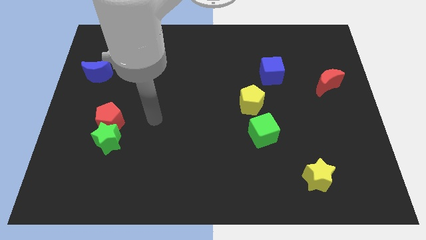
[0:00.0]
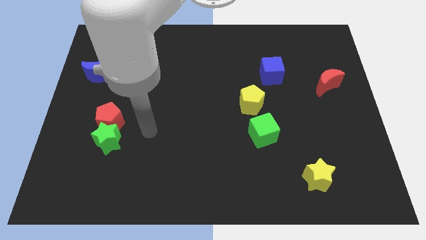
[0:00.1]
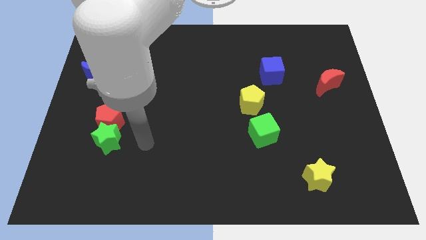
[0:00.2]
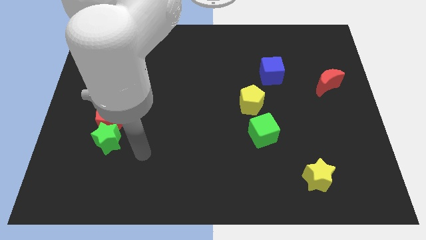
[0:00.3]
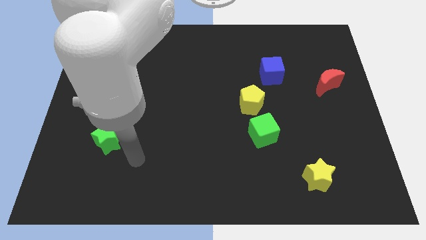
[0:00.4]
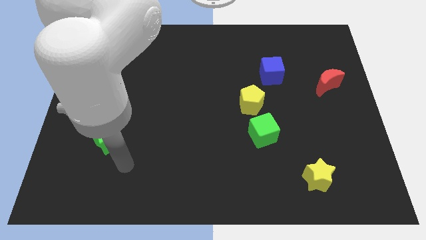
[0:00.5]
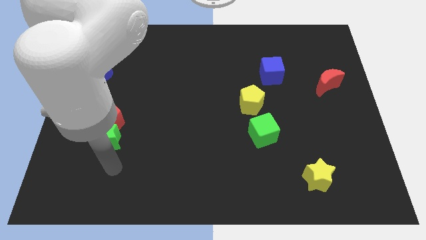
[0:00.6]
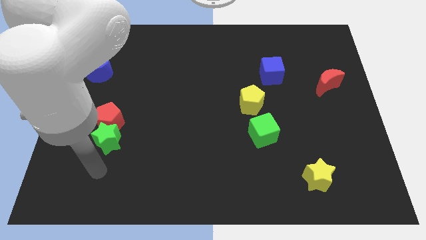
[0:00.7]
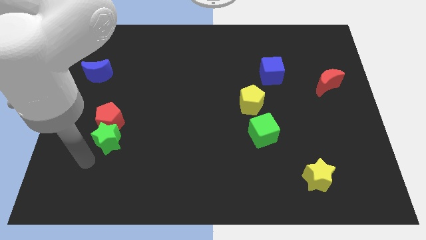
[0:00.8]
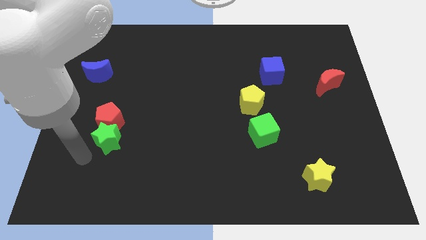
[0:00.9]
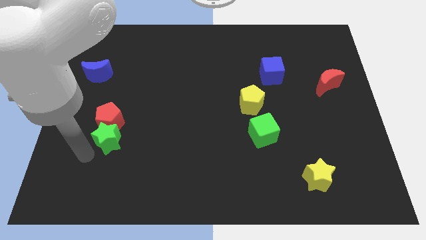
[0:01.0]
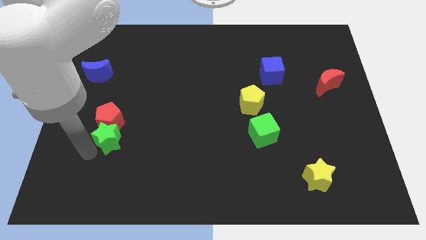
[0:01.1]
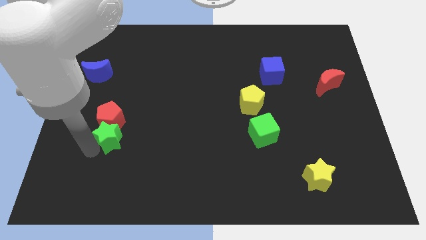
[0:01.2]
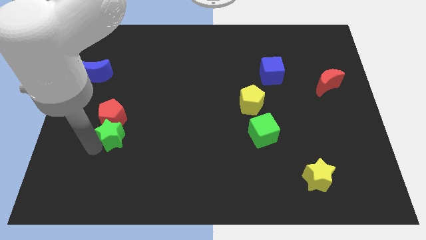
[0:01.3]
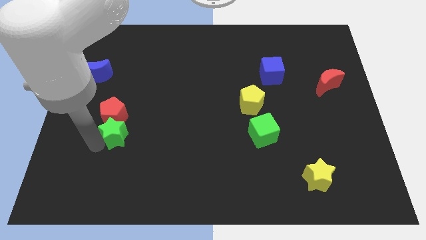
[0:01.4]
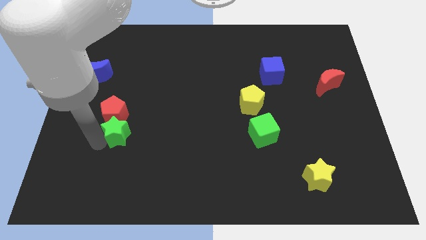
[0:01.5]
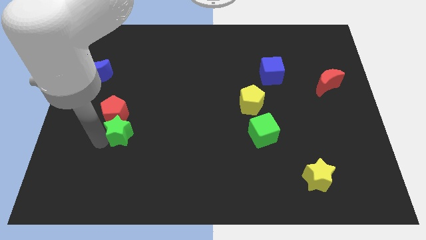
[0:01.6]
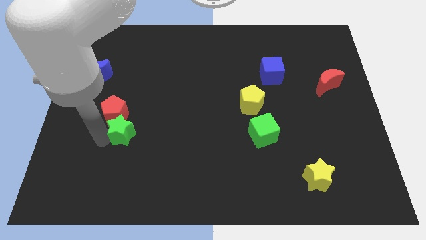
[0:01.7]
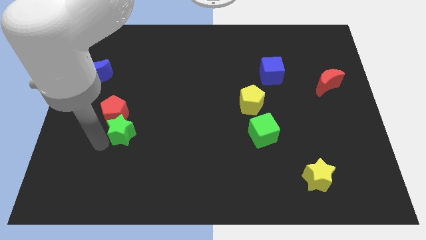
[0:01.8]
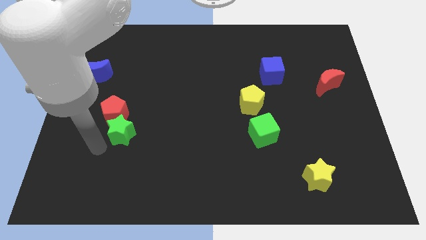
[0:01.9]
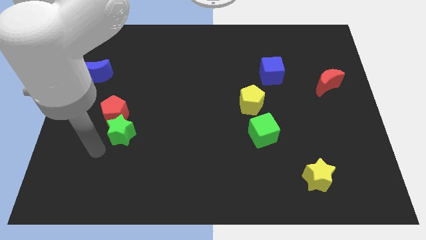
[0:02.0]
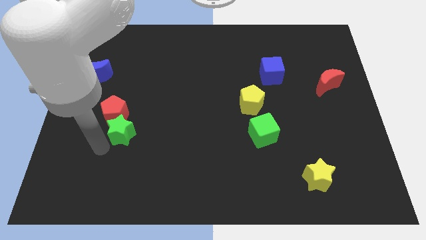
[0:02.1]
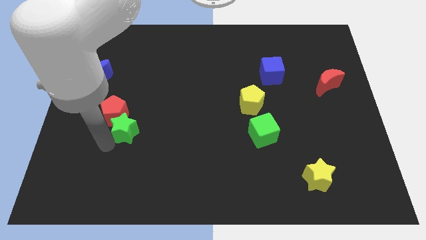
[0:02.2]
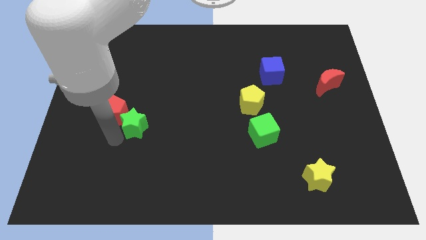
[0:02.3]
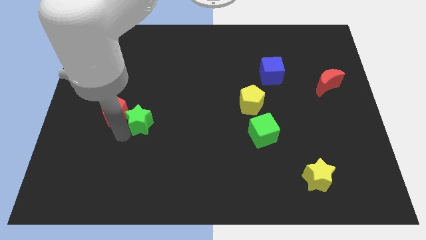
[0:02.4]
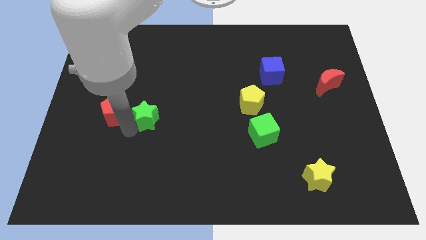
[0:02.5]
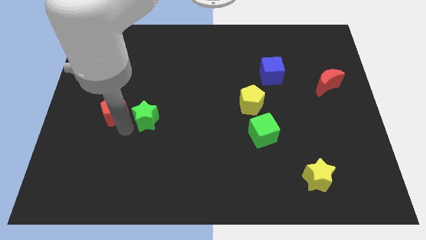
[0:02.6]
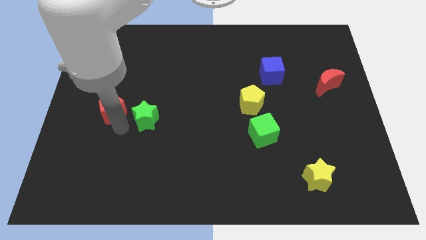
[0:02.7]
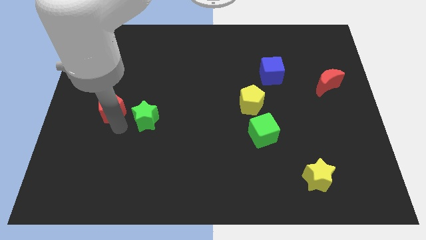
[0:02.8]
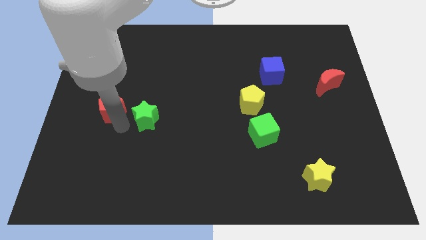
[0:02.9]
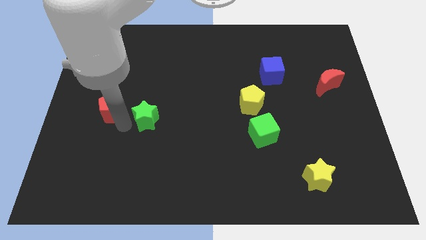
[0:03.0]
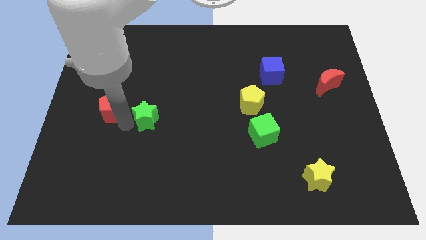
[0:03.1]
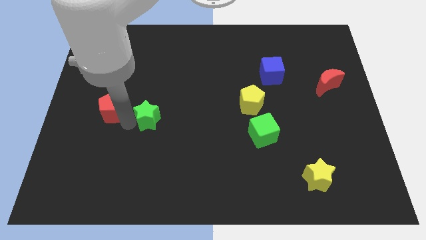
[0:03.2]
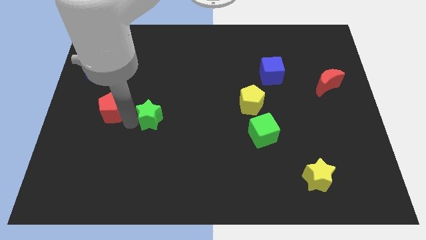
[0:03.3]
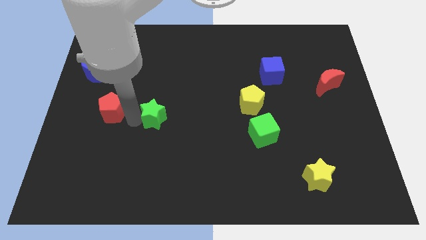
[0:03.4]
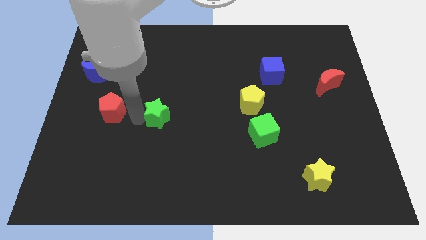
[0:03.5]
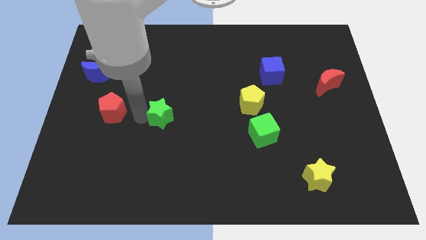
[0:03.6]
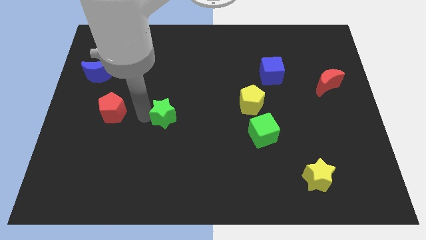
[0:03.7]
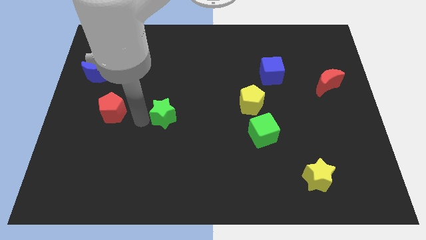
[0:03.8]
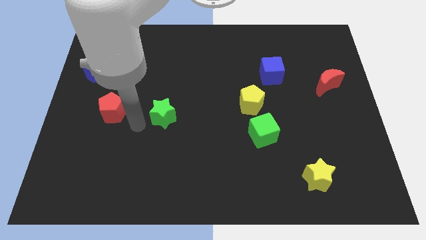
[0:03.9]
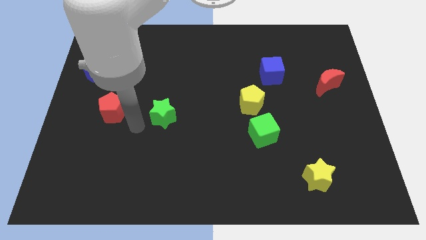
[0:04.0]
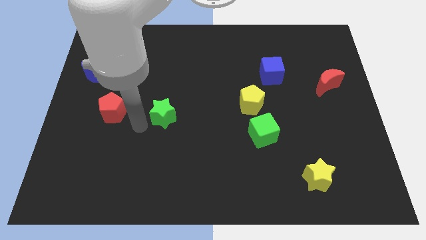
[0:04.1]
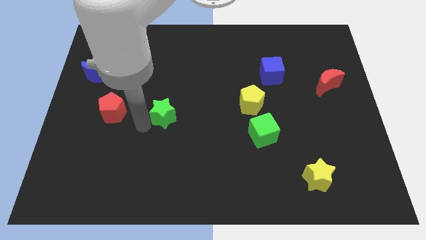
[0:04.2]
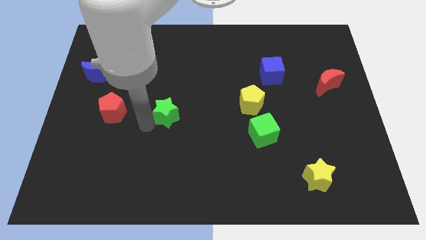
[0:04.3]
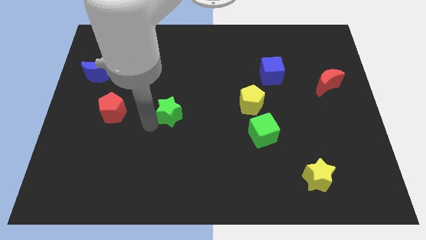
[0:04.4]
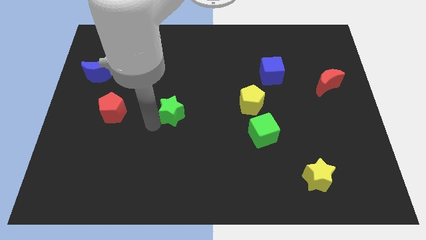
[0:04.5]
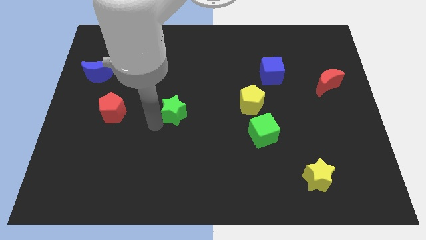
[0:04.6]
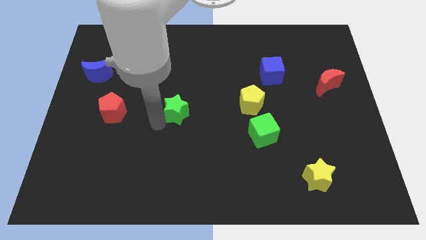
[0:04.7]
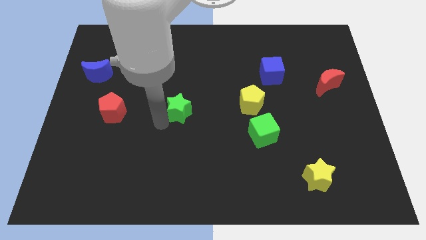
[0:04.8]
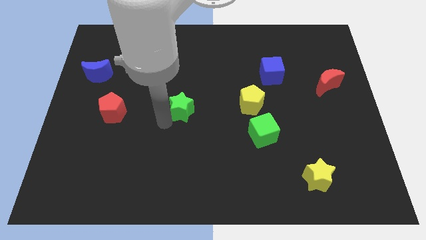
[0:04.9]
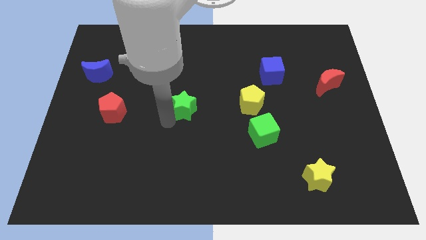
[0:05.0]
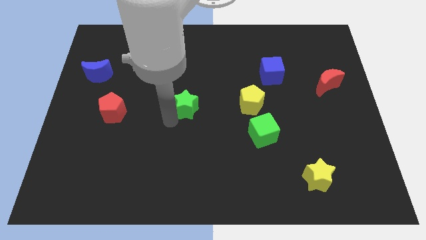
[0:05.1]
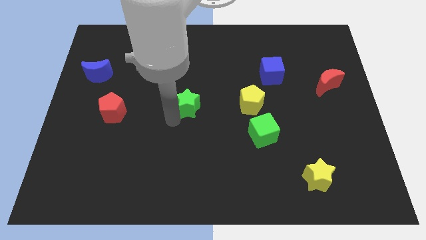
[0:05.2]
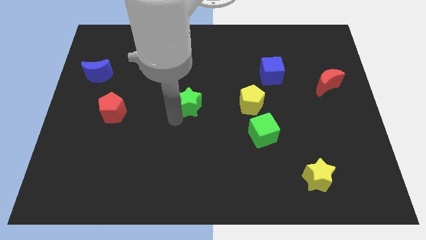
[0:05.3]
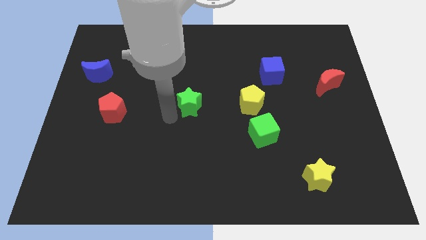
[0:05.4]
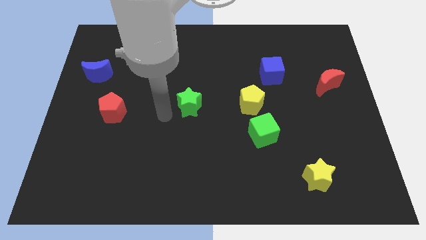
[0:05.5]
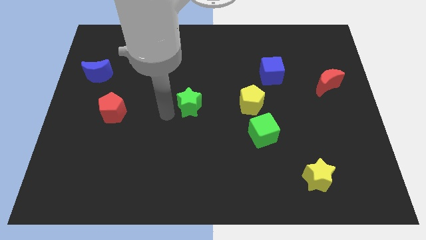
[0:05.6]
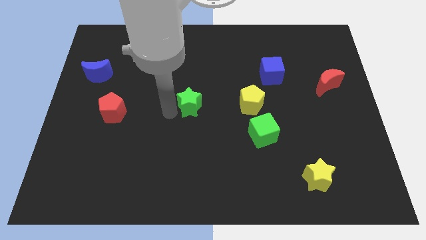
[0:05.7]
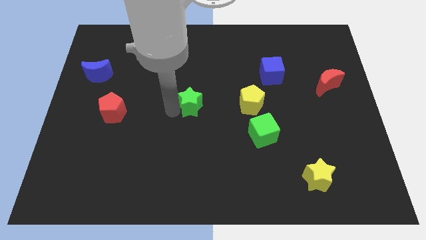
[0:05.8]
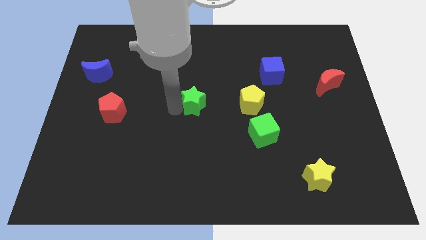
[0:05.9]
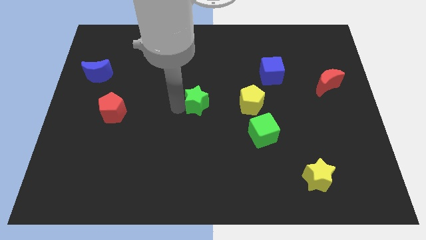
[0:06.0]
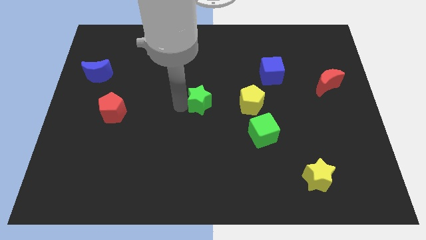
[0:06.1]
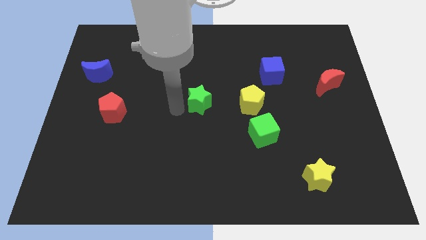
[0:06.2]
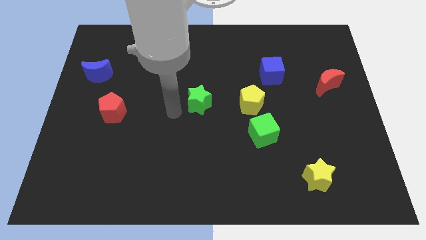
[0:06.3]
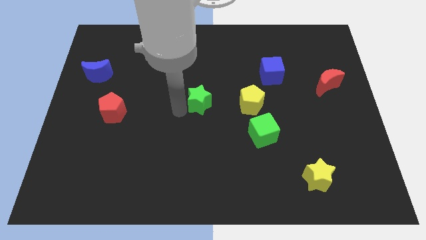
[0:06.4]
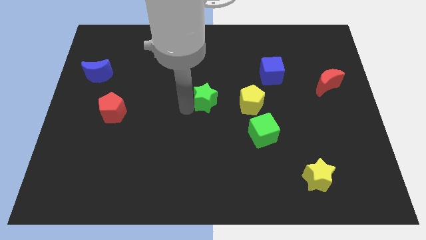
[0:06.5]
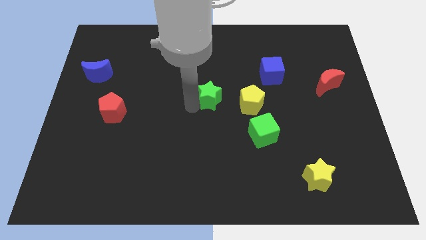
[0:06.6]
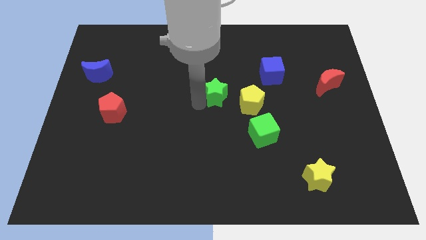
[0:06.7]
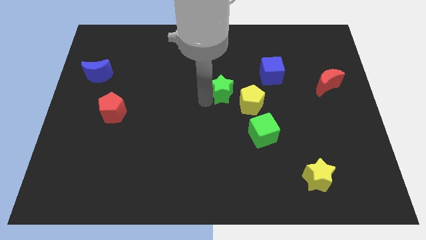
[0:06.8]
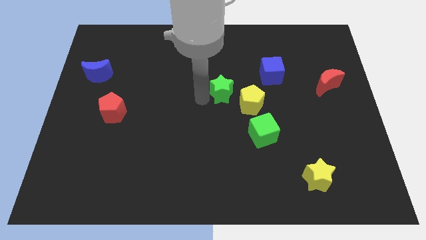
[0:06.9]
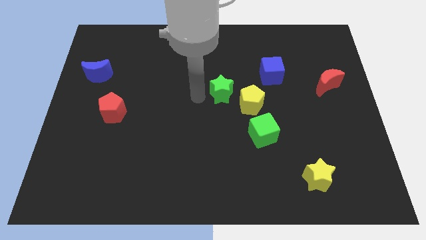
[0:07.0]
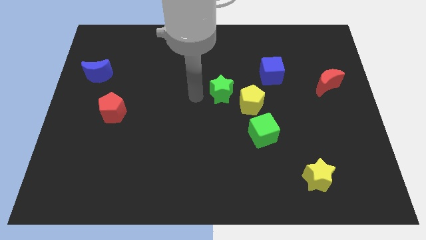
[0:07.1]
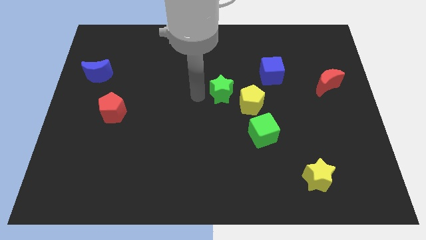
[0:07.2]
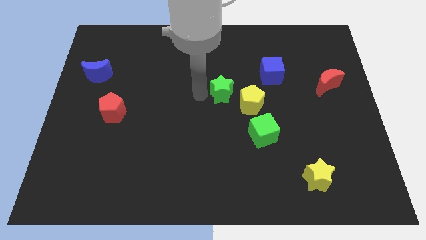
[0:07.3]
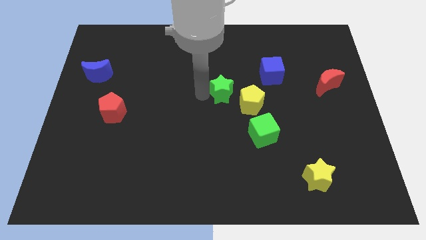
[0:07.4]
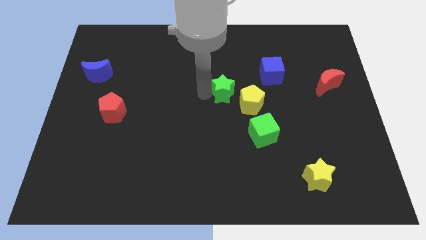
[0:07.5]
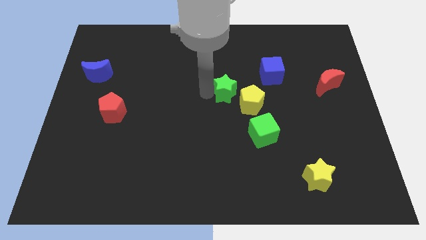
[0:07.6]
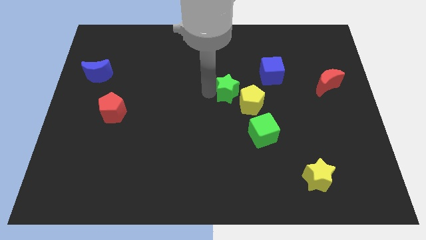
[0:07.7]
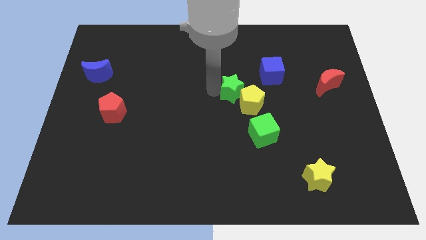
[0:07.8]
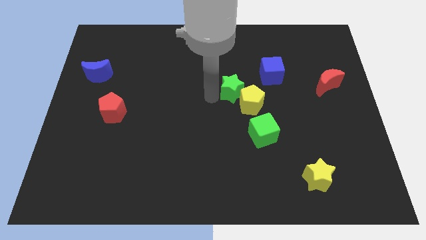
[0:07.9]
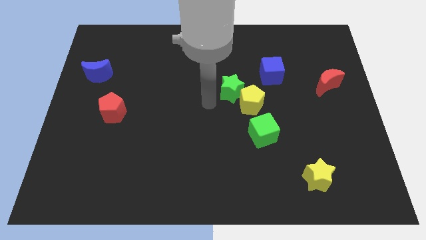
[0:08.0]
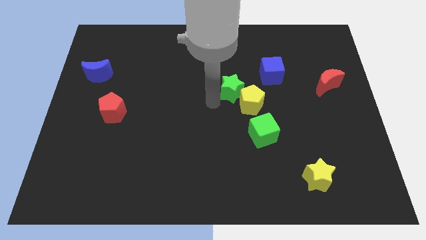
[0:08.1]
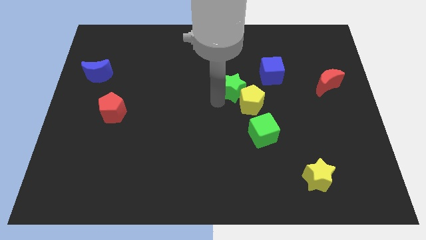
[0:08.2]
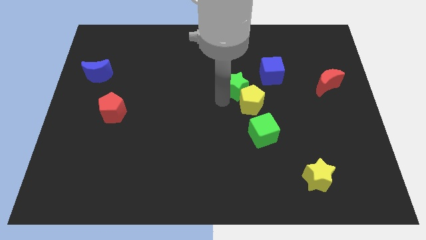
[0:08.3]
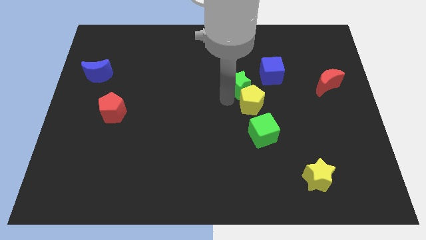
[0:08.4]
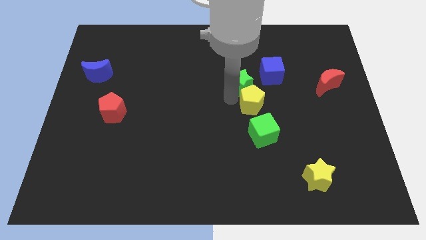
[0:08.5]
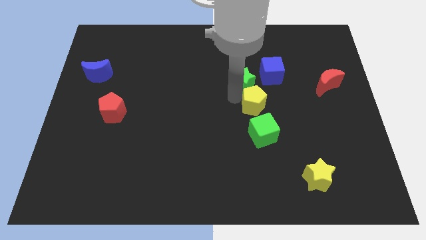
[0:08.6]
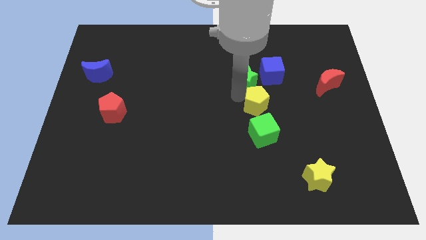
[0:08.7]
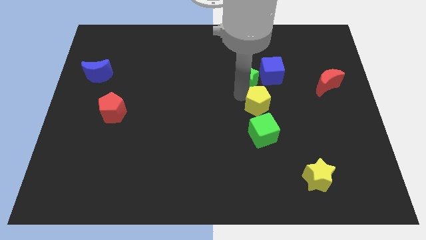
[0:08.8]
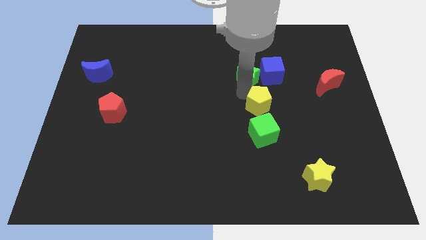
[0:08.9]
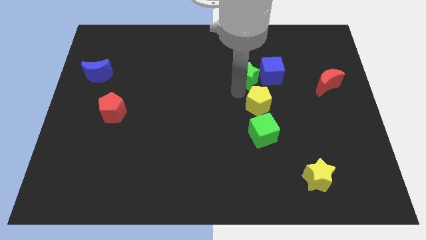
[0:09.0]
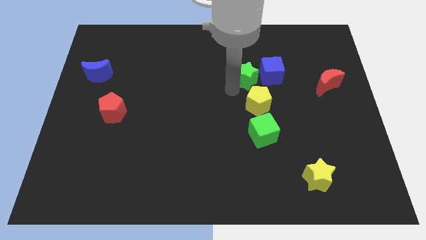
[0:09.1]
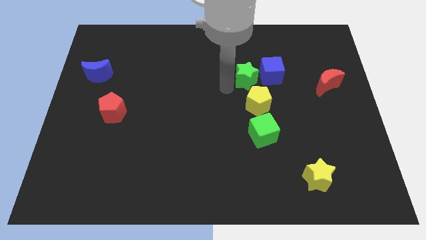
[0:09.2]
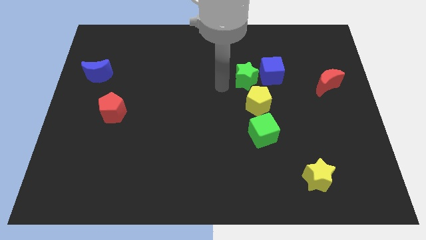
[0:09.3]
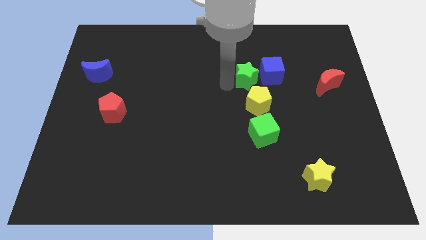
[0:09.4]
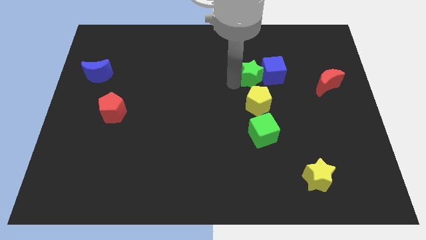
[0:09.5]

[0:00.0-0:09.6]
slide the green star to the blue cube
